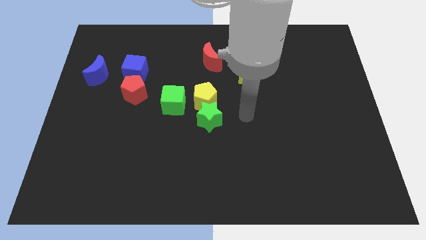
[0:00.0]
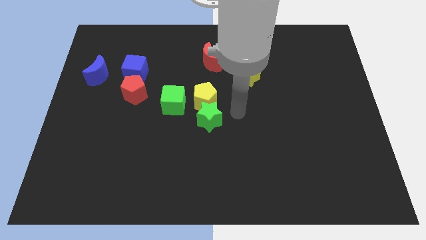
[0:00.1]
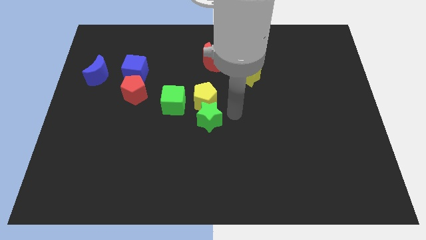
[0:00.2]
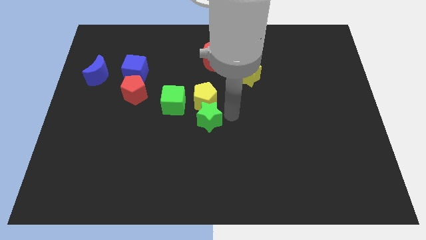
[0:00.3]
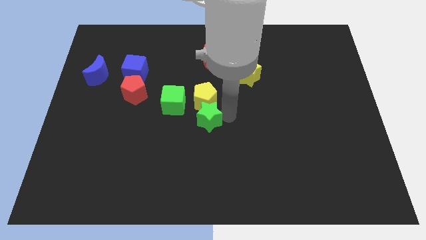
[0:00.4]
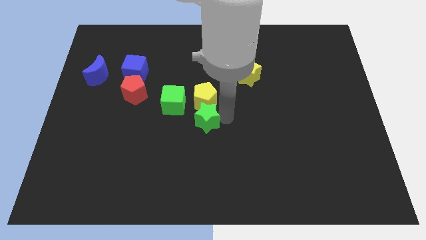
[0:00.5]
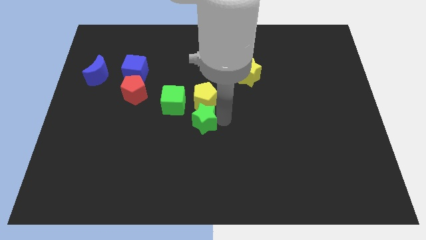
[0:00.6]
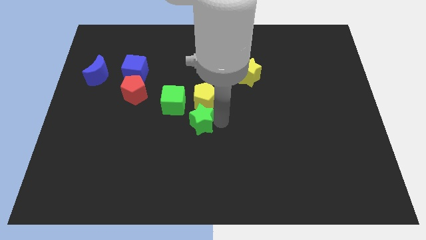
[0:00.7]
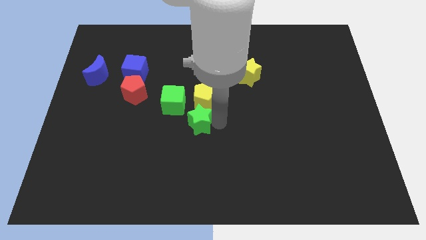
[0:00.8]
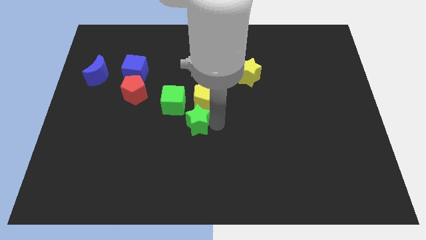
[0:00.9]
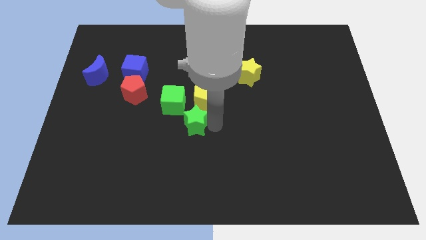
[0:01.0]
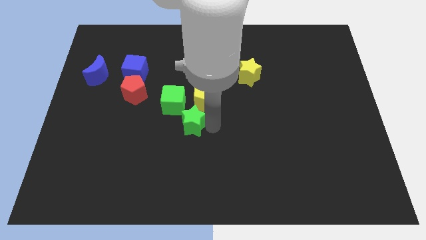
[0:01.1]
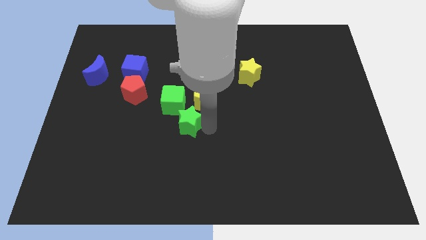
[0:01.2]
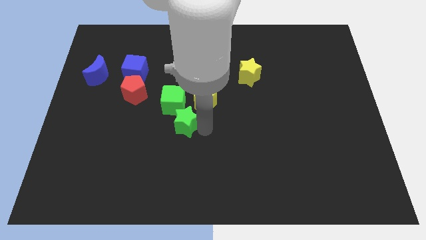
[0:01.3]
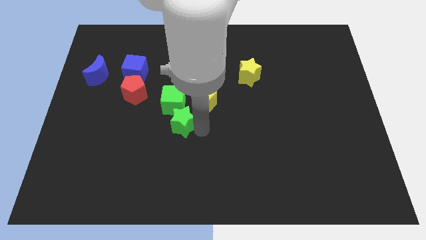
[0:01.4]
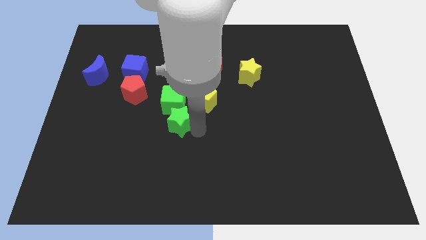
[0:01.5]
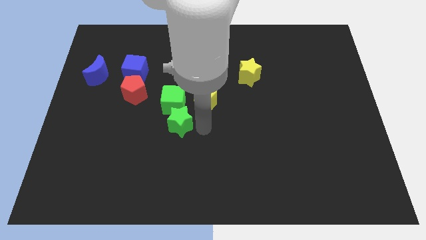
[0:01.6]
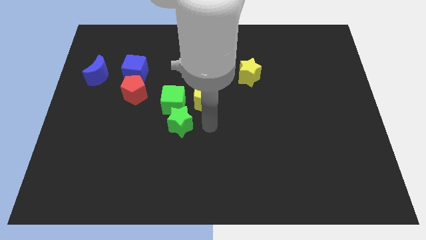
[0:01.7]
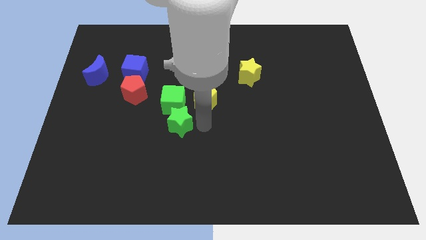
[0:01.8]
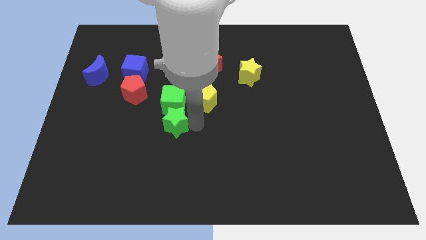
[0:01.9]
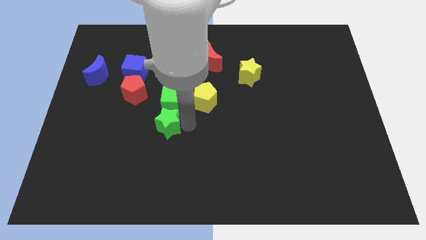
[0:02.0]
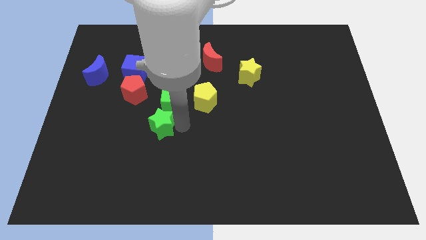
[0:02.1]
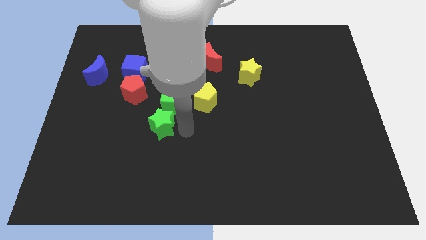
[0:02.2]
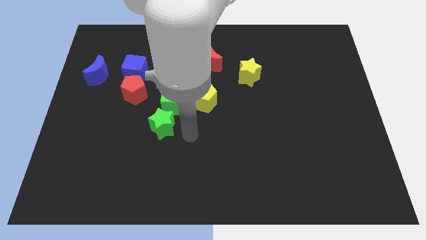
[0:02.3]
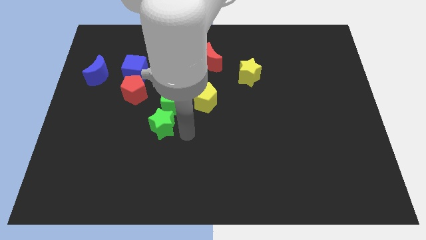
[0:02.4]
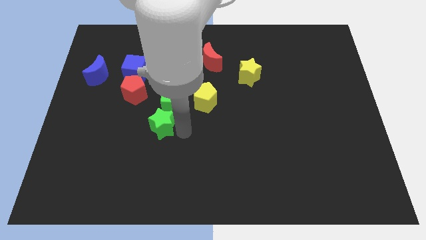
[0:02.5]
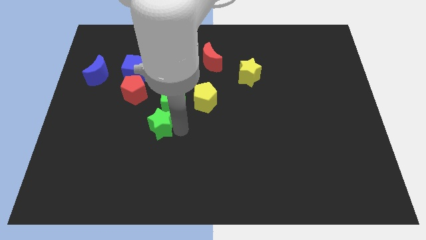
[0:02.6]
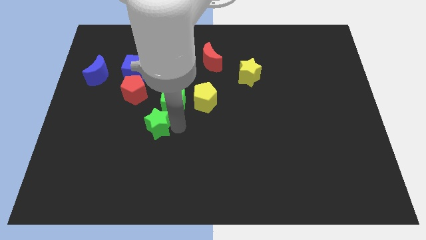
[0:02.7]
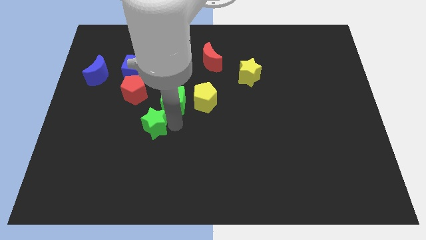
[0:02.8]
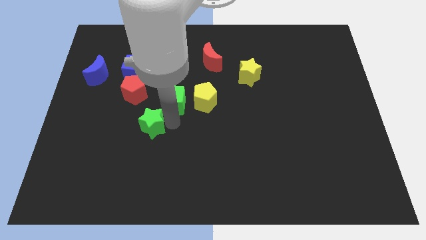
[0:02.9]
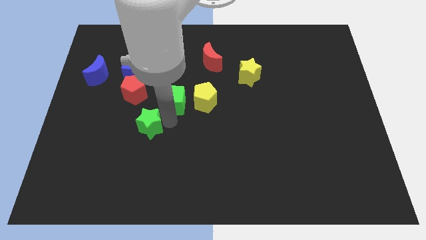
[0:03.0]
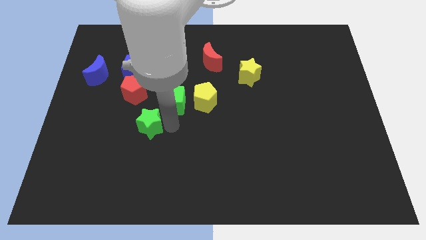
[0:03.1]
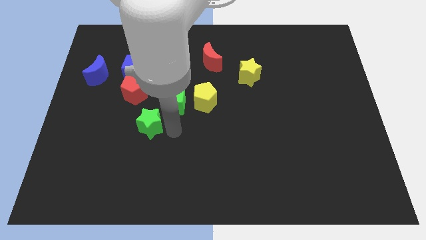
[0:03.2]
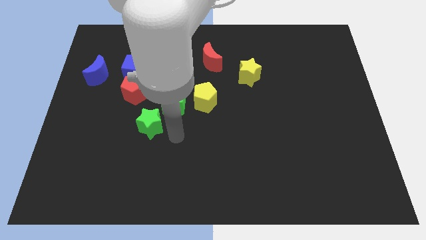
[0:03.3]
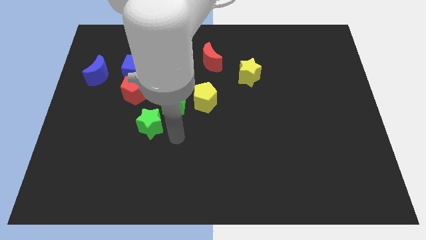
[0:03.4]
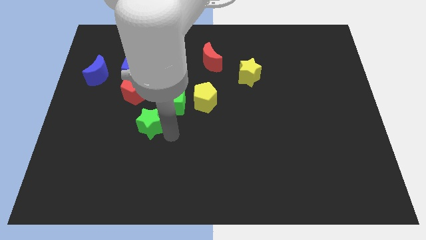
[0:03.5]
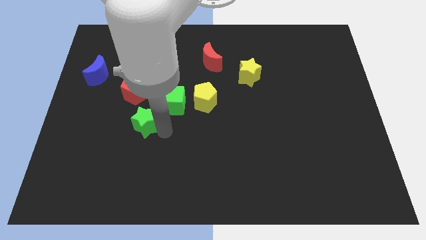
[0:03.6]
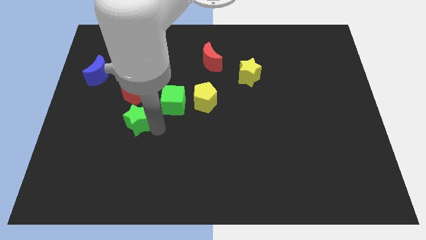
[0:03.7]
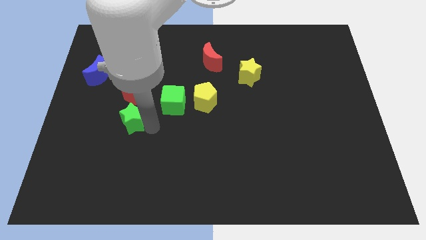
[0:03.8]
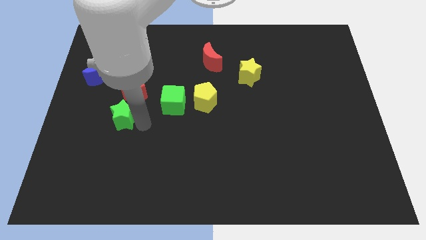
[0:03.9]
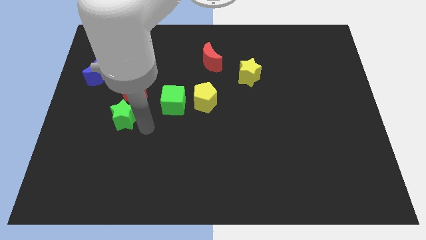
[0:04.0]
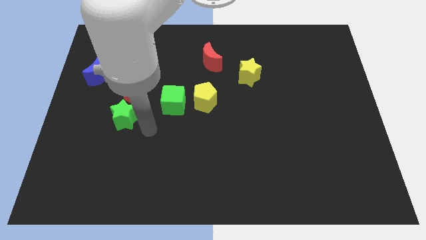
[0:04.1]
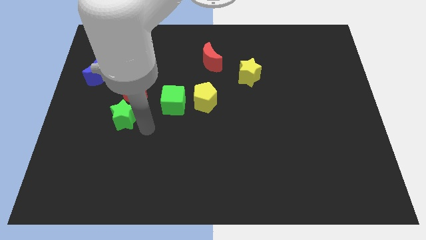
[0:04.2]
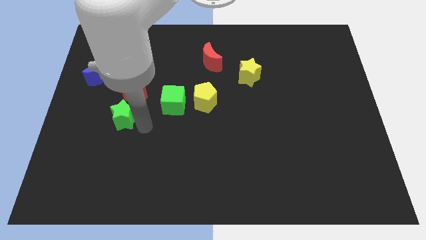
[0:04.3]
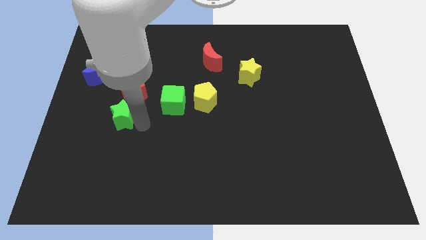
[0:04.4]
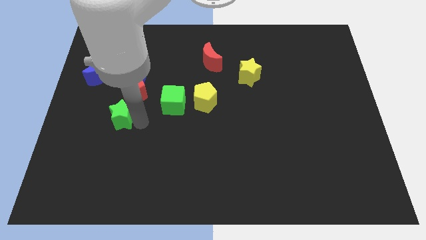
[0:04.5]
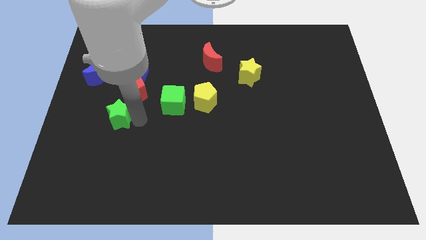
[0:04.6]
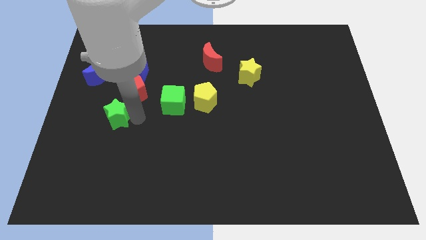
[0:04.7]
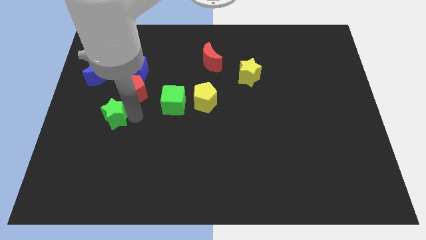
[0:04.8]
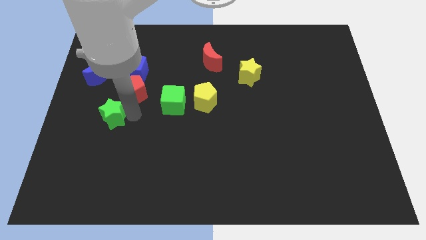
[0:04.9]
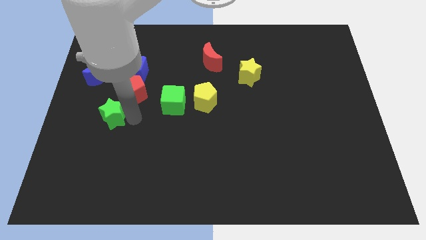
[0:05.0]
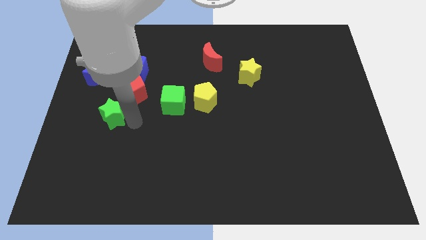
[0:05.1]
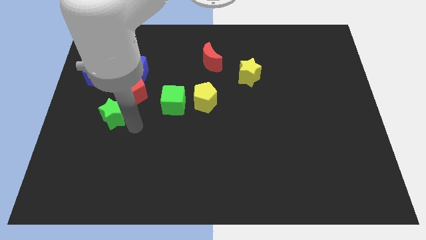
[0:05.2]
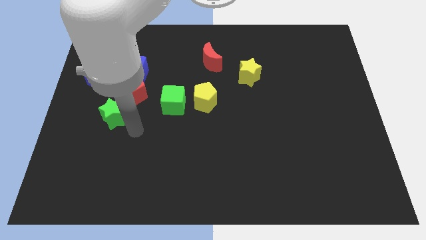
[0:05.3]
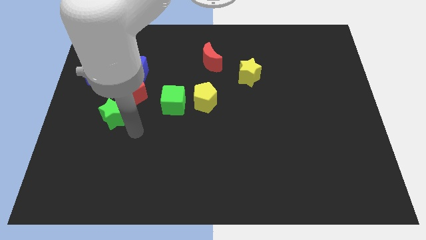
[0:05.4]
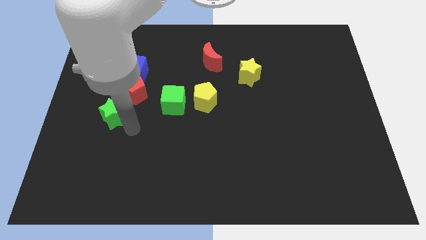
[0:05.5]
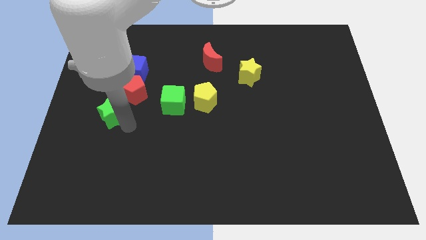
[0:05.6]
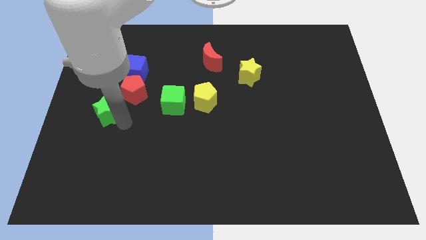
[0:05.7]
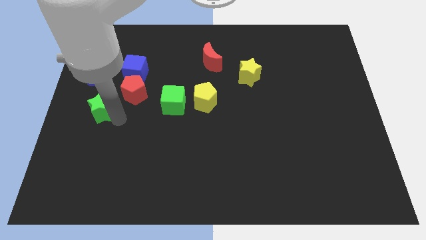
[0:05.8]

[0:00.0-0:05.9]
put the green star to the left side

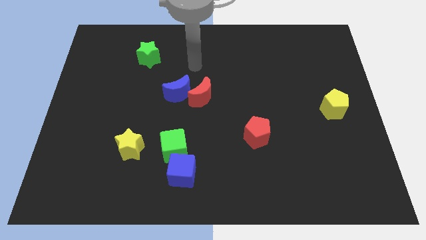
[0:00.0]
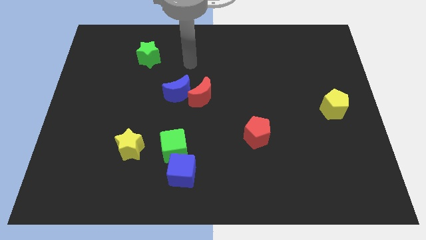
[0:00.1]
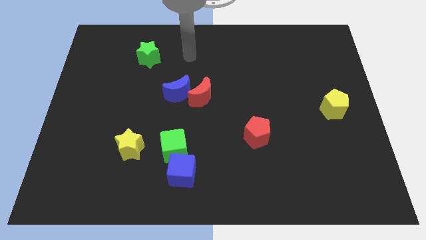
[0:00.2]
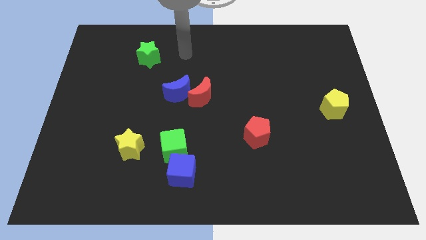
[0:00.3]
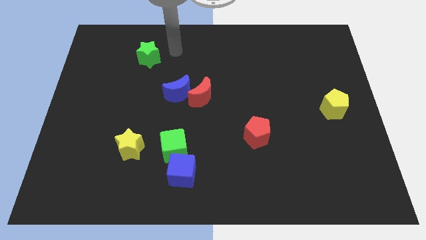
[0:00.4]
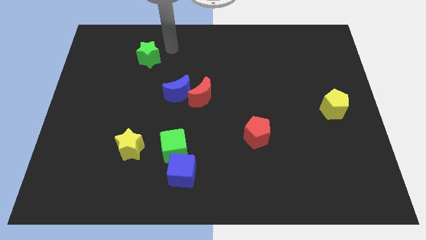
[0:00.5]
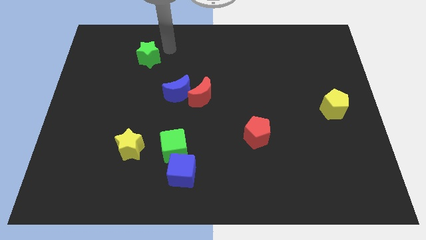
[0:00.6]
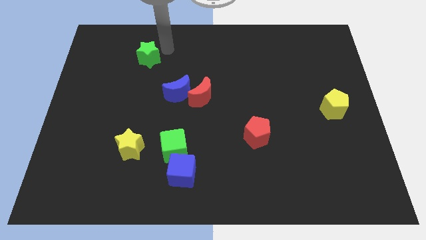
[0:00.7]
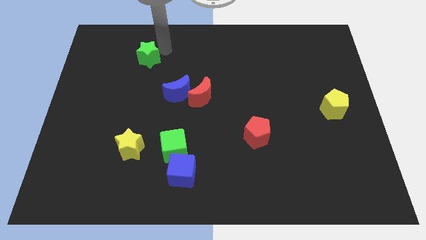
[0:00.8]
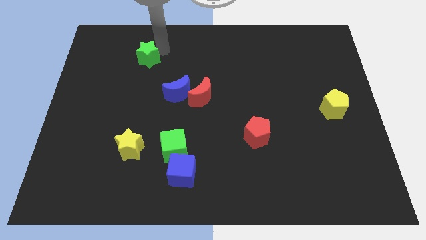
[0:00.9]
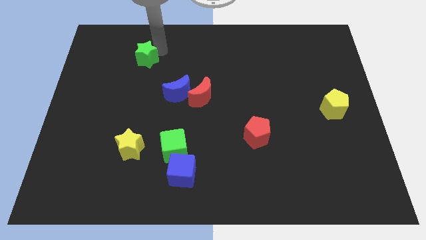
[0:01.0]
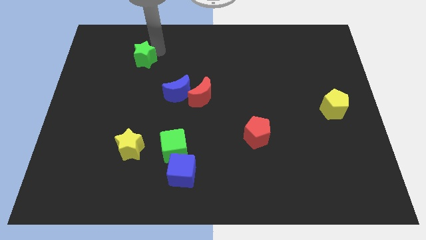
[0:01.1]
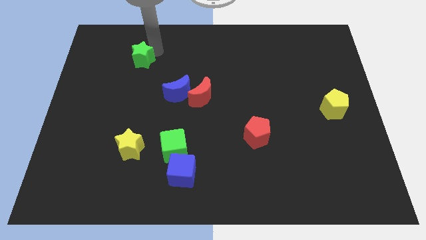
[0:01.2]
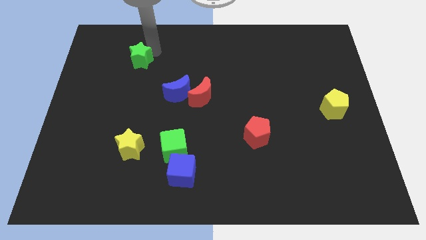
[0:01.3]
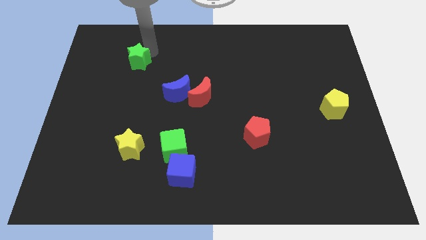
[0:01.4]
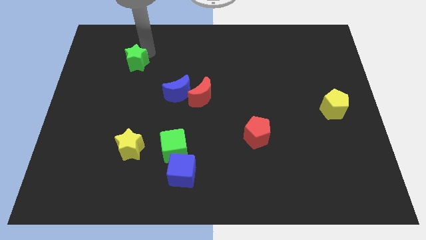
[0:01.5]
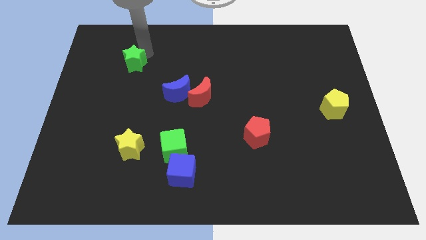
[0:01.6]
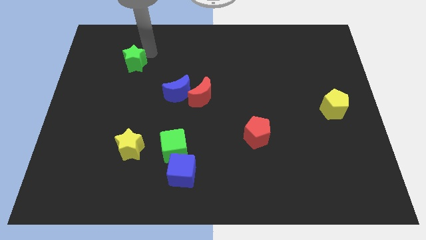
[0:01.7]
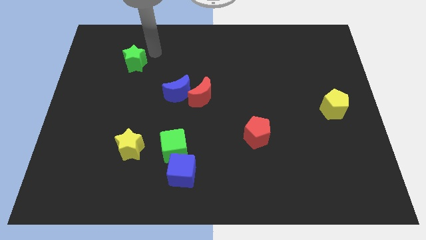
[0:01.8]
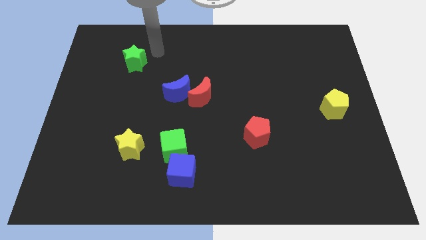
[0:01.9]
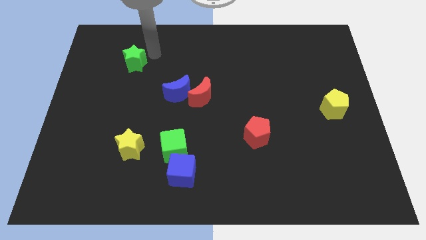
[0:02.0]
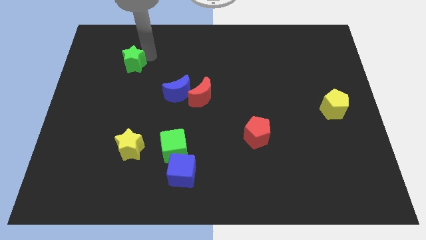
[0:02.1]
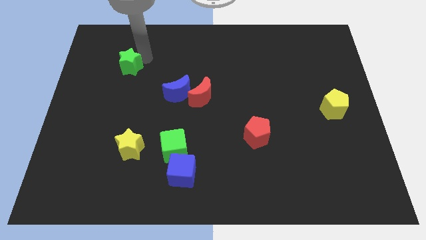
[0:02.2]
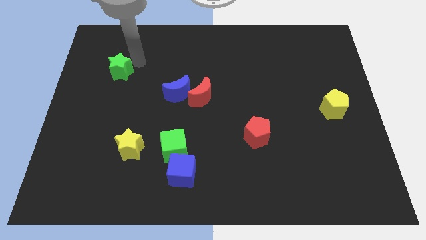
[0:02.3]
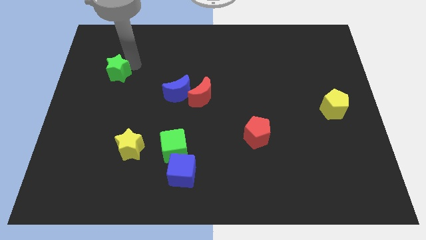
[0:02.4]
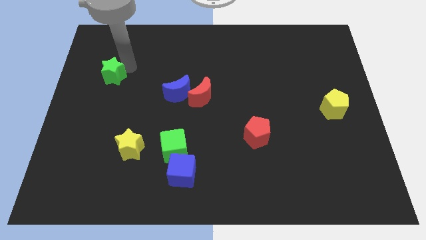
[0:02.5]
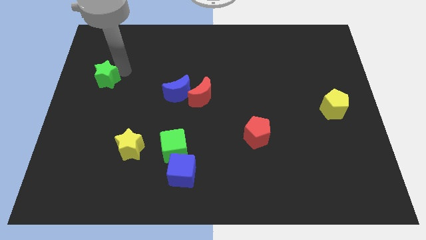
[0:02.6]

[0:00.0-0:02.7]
put the green star to the center left
